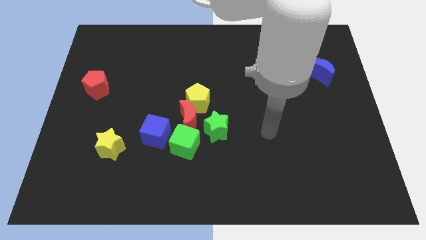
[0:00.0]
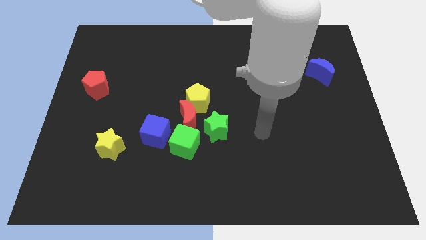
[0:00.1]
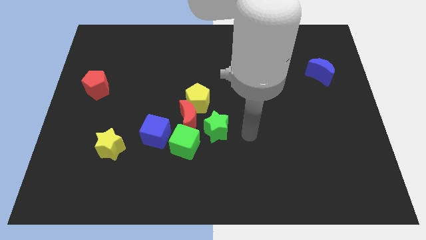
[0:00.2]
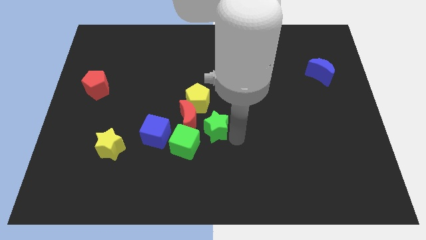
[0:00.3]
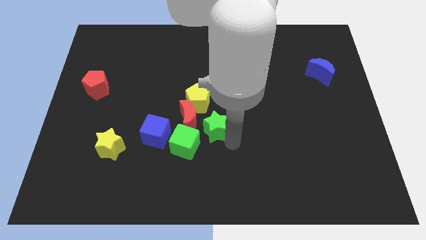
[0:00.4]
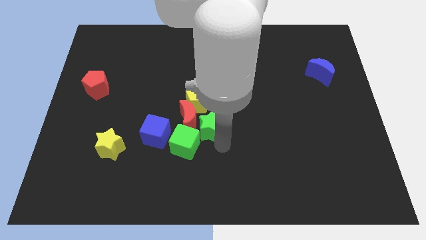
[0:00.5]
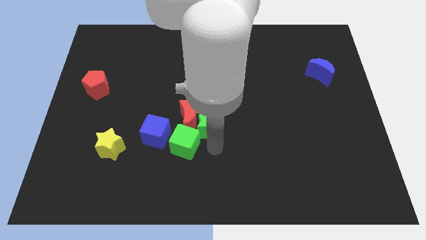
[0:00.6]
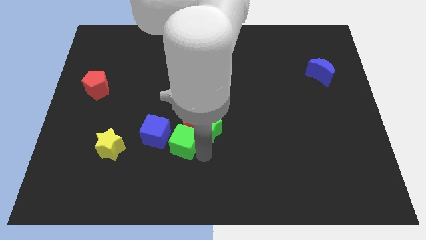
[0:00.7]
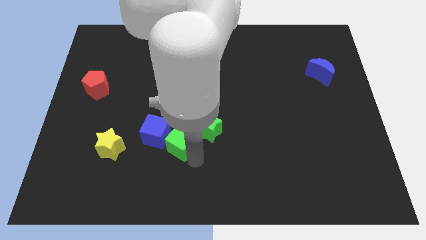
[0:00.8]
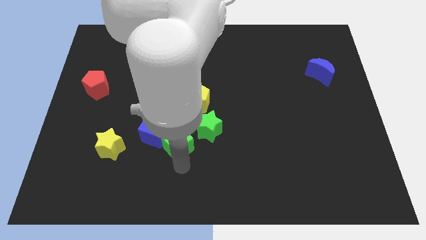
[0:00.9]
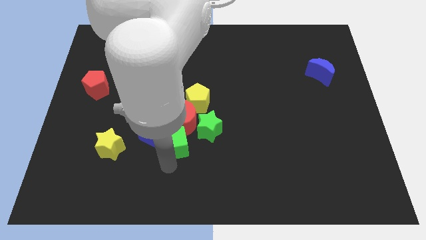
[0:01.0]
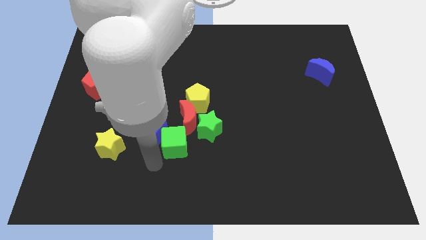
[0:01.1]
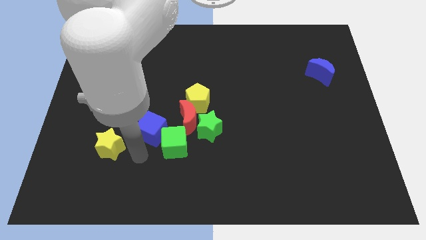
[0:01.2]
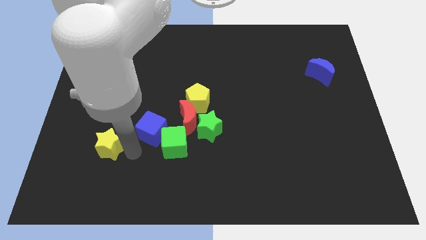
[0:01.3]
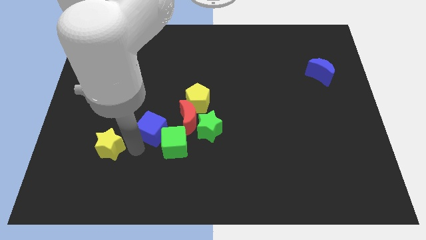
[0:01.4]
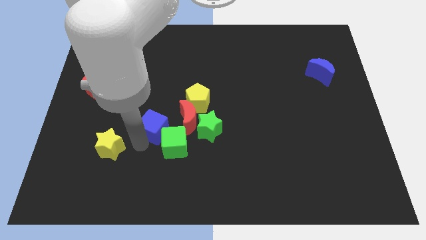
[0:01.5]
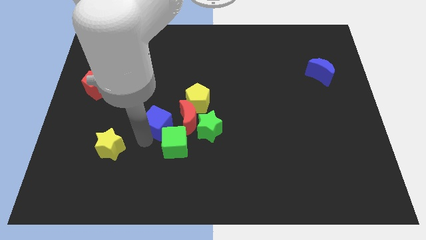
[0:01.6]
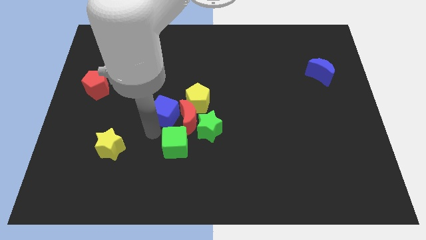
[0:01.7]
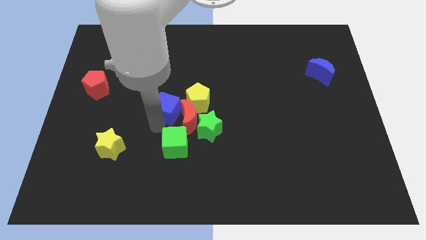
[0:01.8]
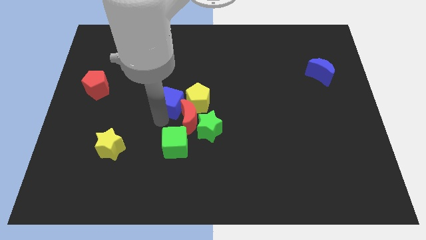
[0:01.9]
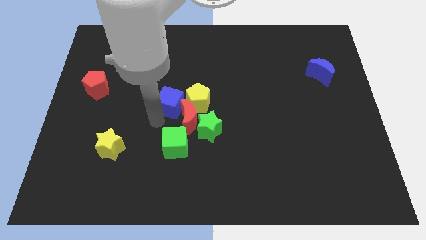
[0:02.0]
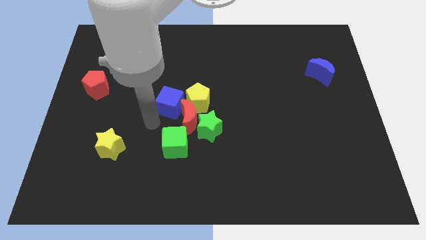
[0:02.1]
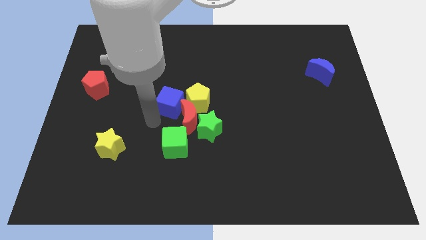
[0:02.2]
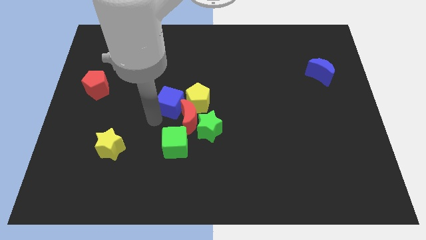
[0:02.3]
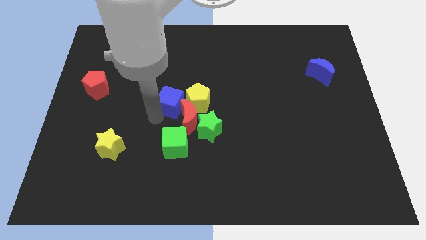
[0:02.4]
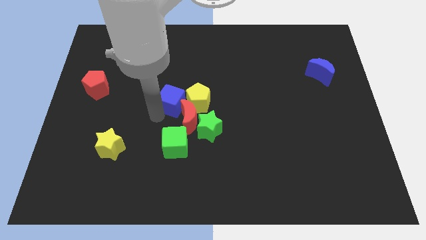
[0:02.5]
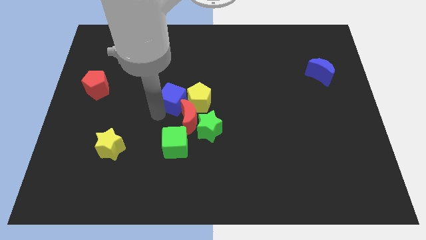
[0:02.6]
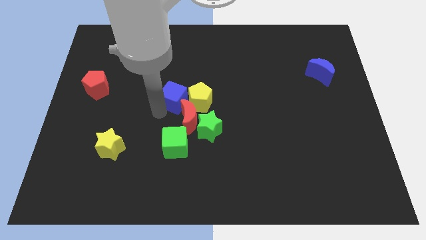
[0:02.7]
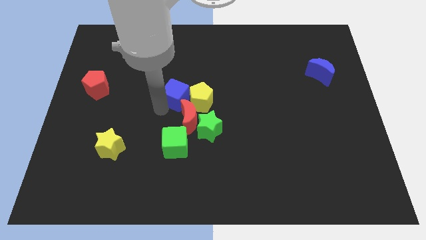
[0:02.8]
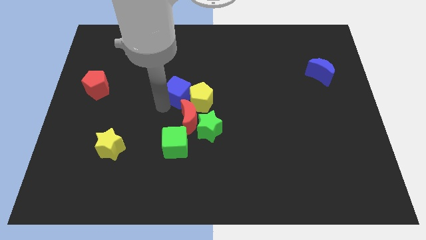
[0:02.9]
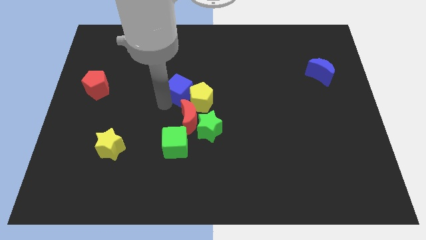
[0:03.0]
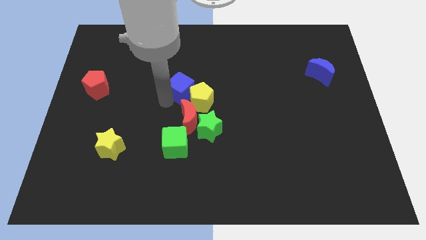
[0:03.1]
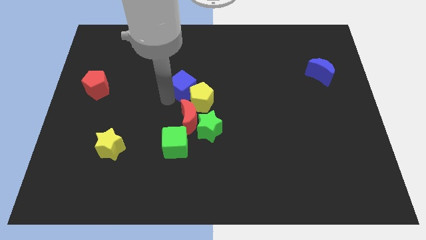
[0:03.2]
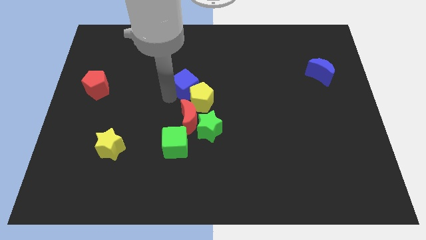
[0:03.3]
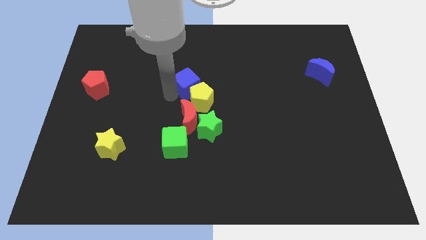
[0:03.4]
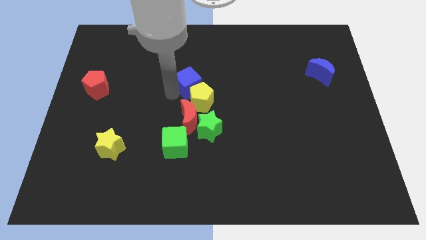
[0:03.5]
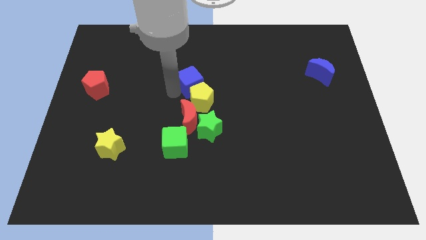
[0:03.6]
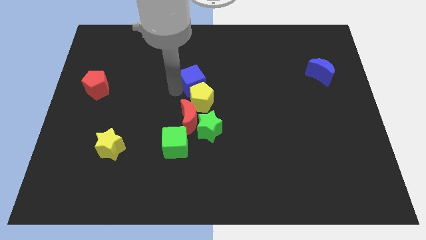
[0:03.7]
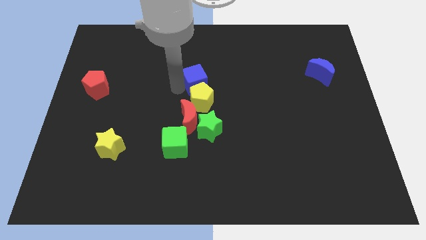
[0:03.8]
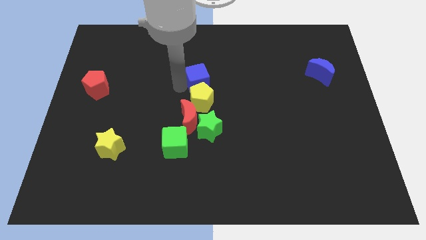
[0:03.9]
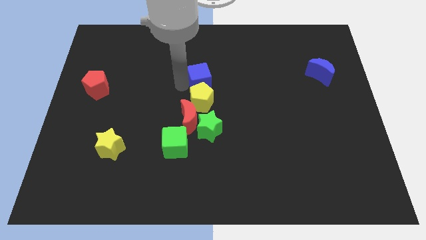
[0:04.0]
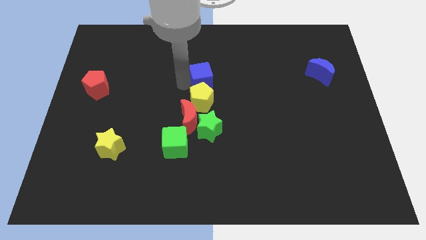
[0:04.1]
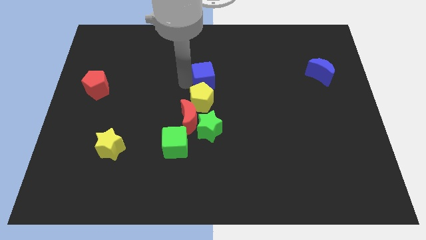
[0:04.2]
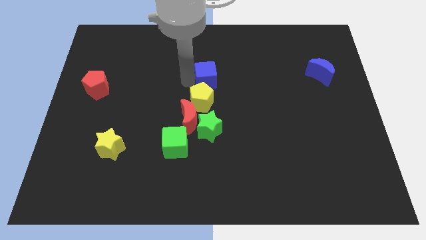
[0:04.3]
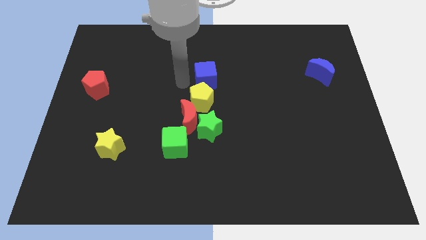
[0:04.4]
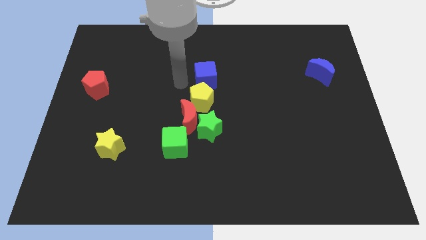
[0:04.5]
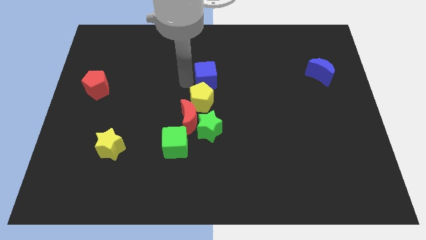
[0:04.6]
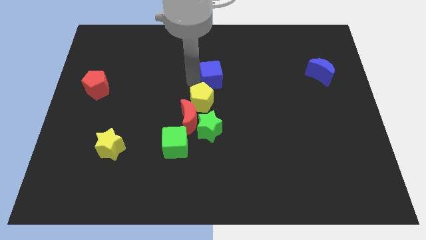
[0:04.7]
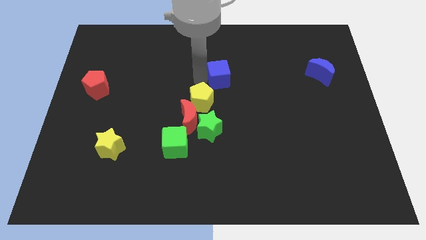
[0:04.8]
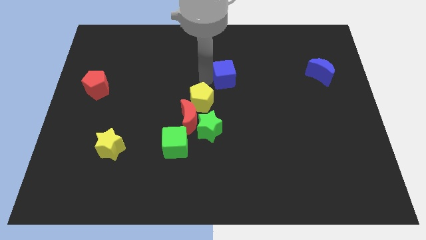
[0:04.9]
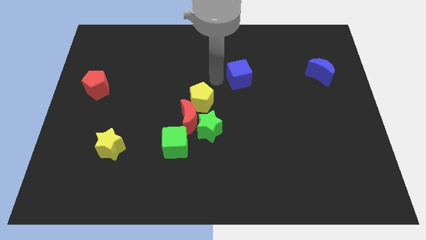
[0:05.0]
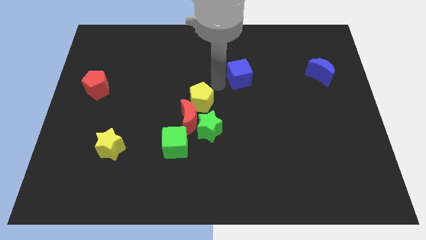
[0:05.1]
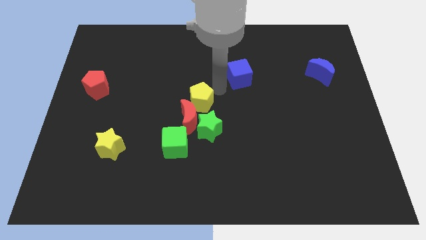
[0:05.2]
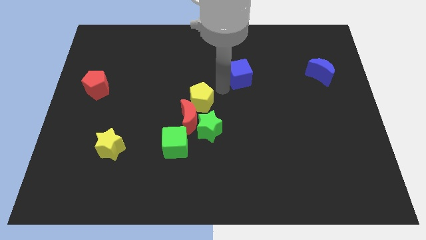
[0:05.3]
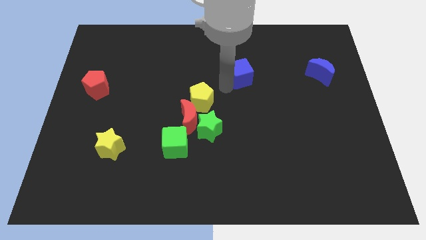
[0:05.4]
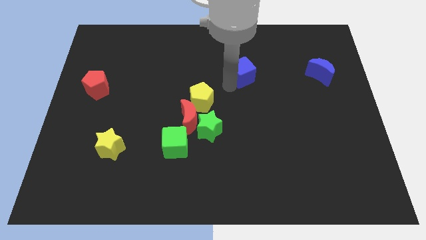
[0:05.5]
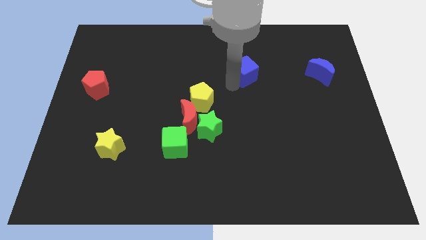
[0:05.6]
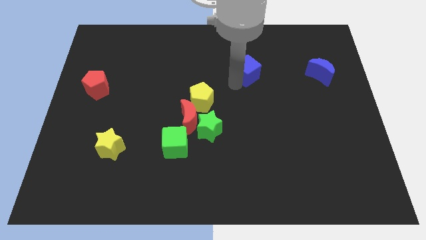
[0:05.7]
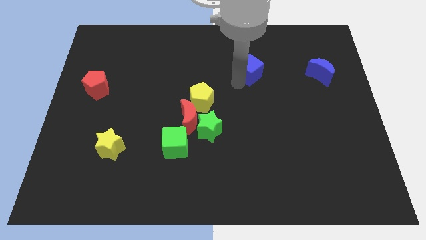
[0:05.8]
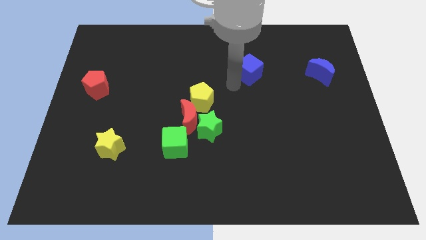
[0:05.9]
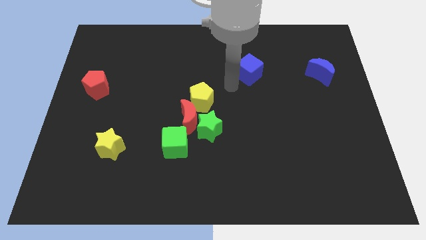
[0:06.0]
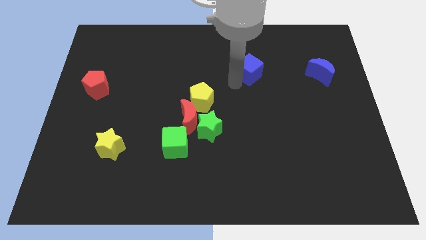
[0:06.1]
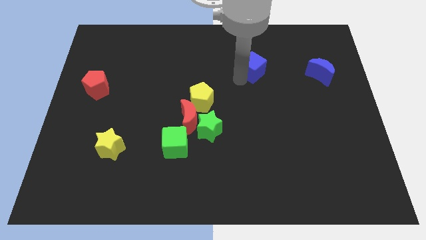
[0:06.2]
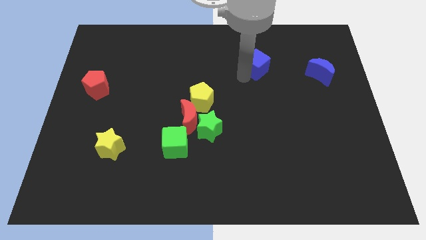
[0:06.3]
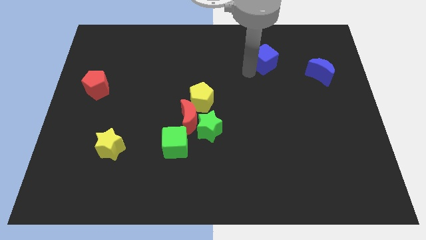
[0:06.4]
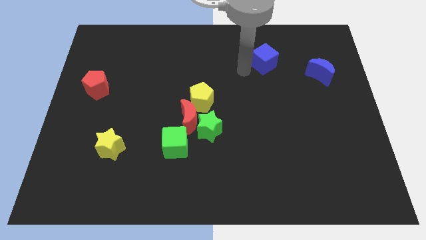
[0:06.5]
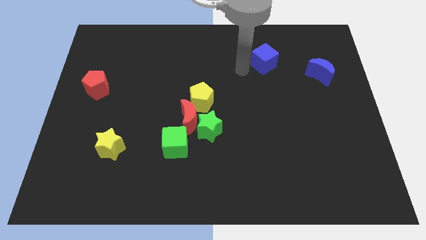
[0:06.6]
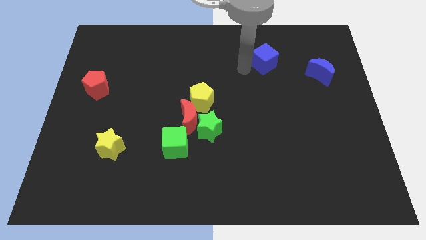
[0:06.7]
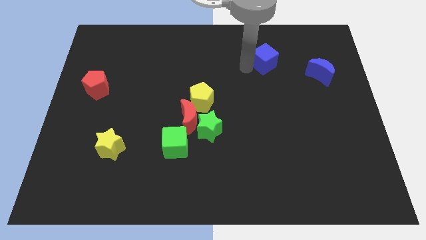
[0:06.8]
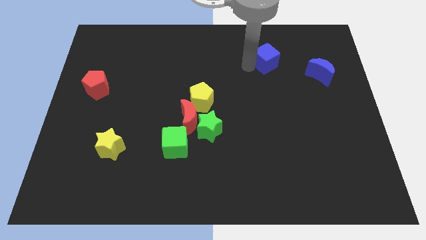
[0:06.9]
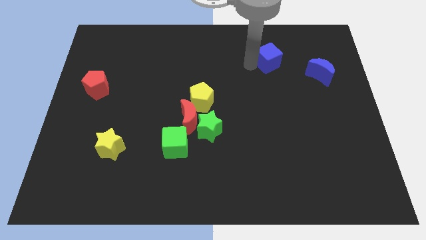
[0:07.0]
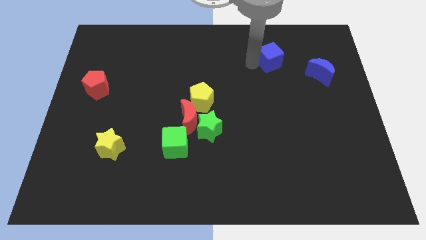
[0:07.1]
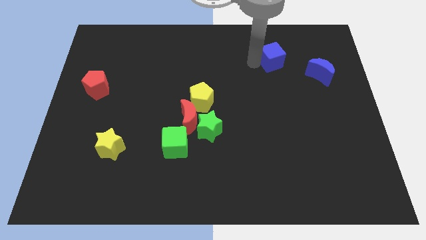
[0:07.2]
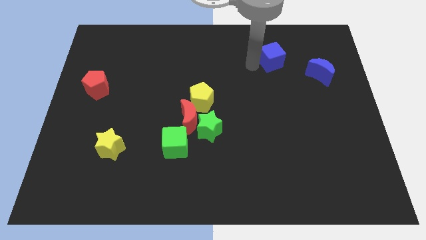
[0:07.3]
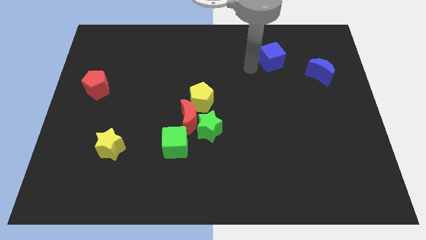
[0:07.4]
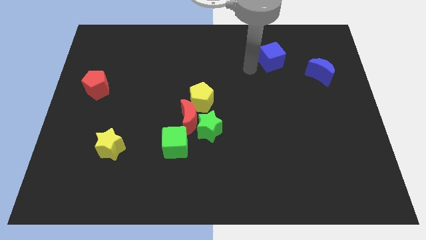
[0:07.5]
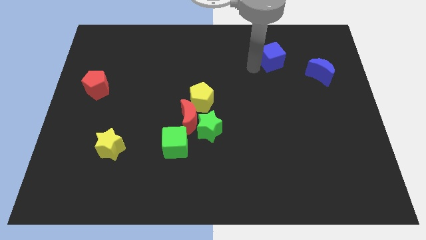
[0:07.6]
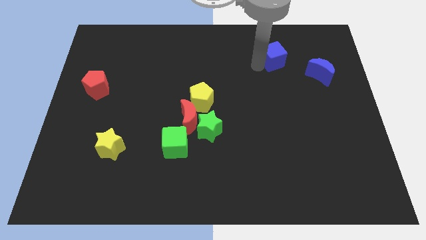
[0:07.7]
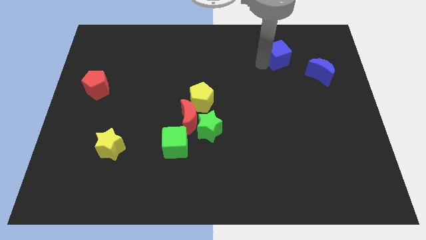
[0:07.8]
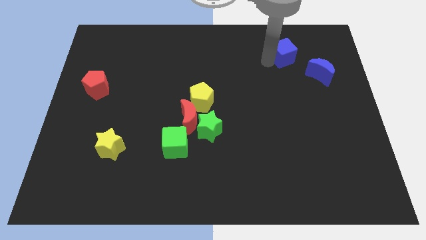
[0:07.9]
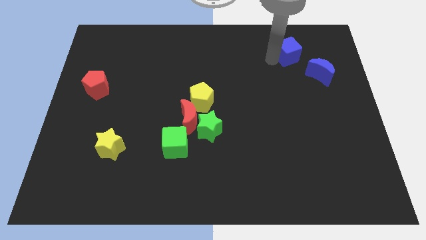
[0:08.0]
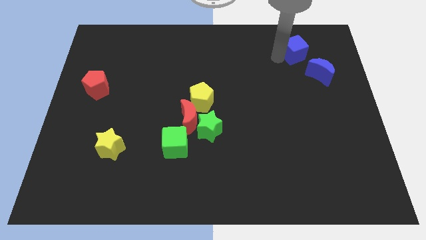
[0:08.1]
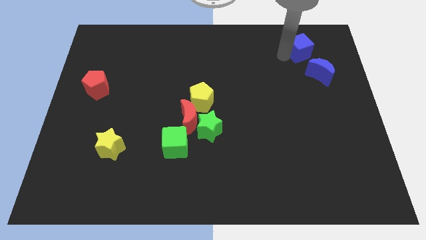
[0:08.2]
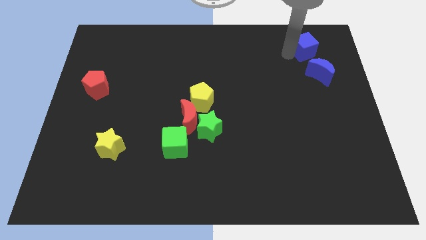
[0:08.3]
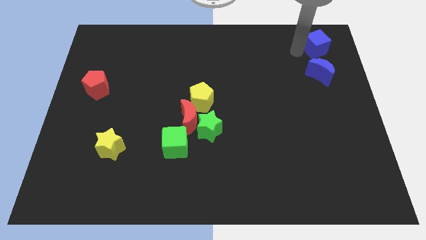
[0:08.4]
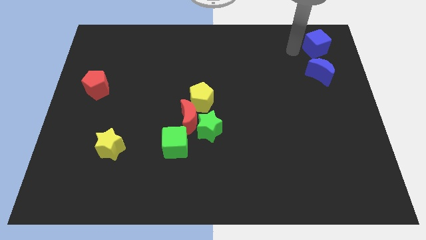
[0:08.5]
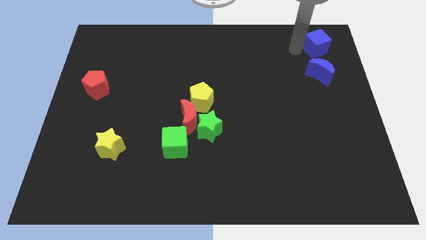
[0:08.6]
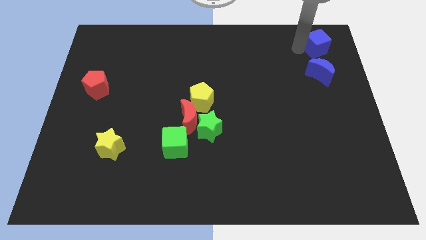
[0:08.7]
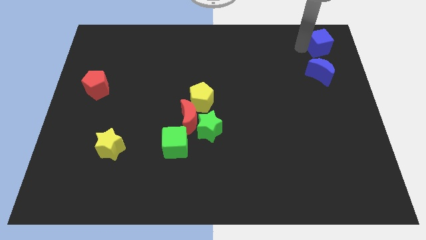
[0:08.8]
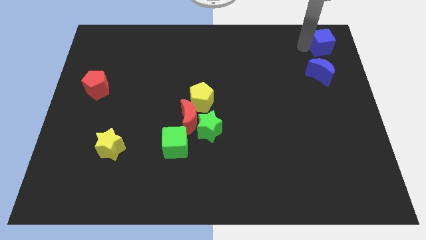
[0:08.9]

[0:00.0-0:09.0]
put the blue cube to the top right corner
